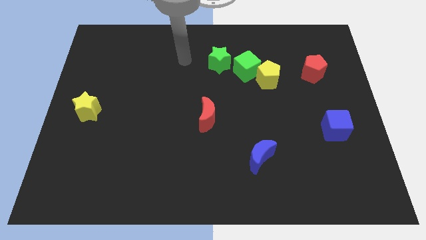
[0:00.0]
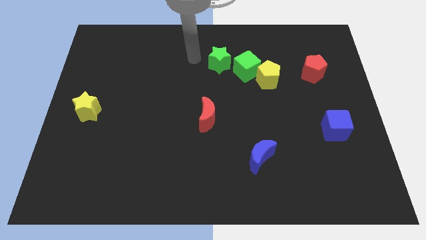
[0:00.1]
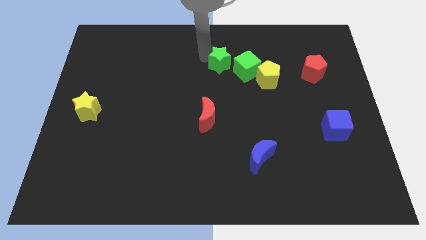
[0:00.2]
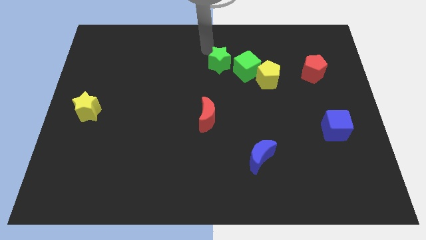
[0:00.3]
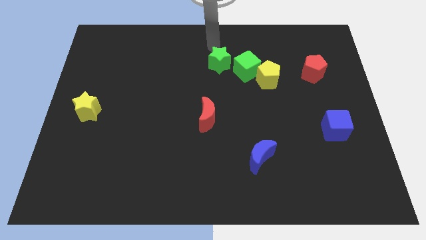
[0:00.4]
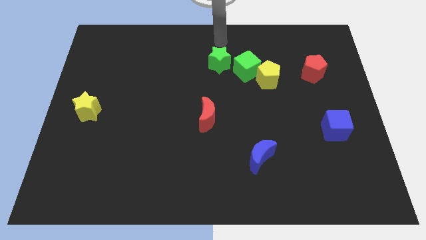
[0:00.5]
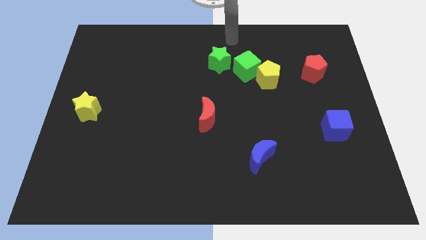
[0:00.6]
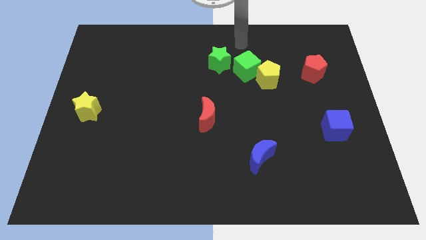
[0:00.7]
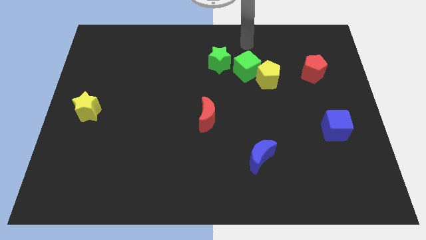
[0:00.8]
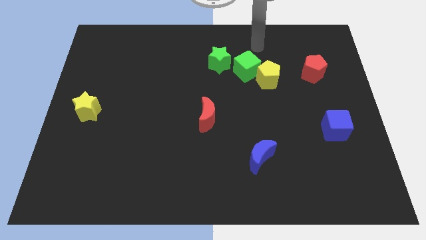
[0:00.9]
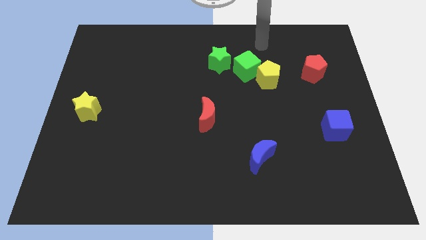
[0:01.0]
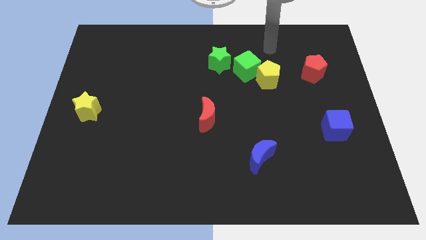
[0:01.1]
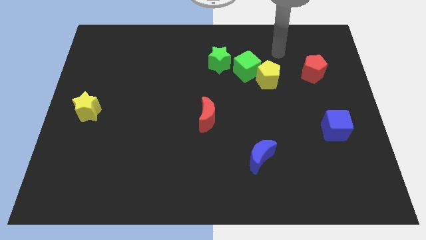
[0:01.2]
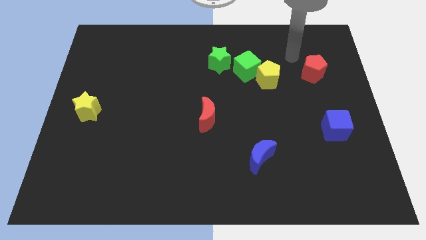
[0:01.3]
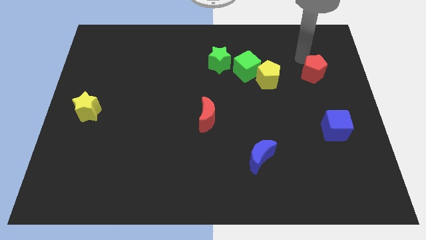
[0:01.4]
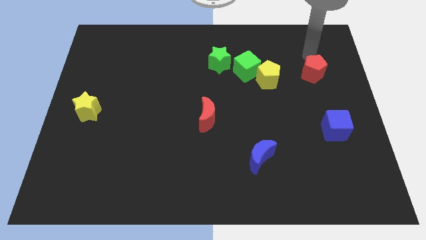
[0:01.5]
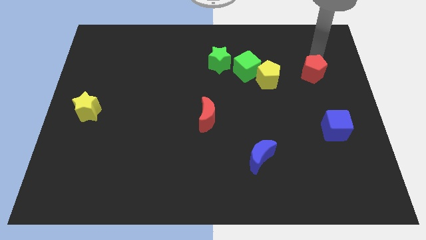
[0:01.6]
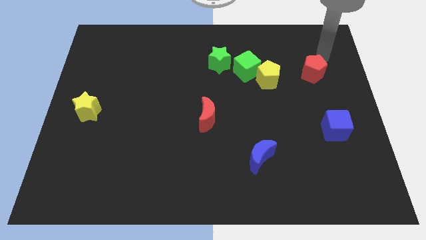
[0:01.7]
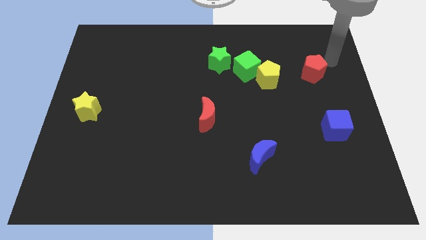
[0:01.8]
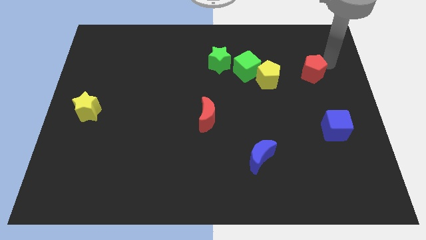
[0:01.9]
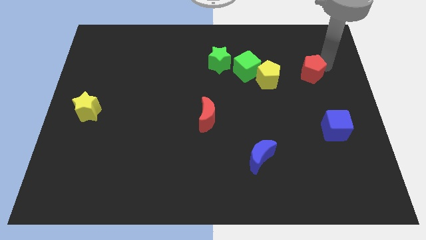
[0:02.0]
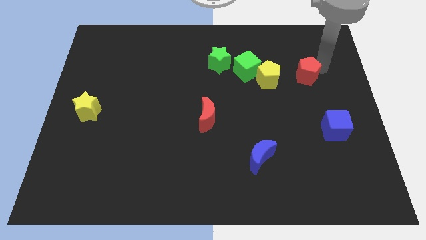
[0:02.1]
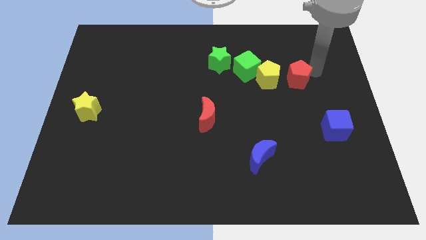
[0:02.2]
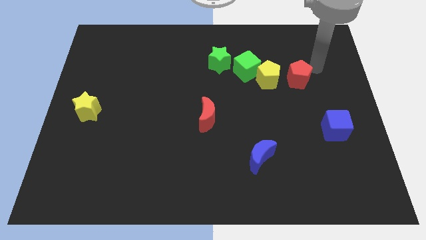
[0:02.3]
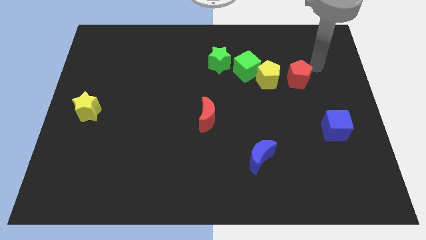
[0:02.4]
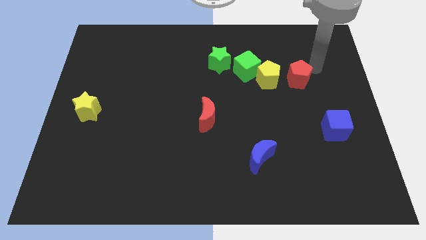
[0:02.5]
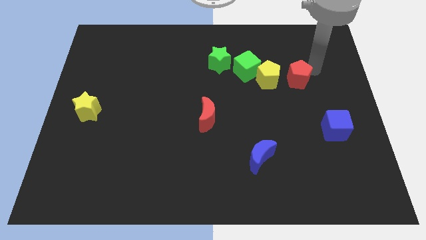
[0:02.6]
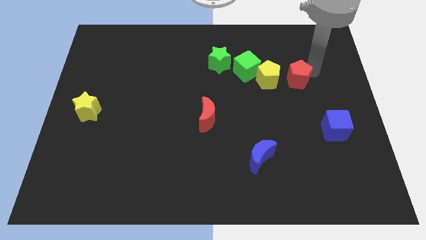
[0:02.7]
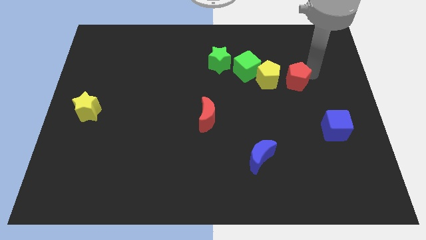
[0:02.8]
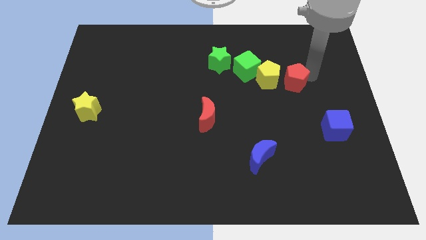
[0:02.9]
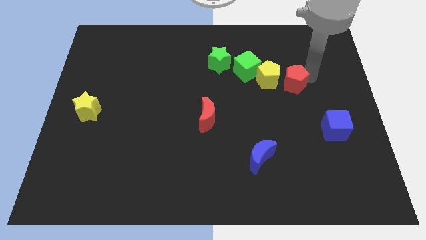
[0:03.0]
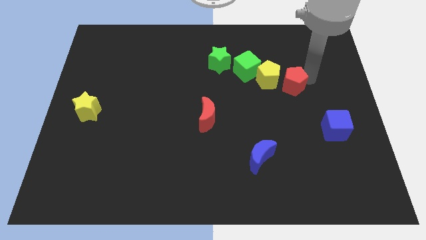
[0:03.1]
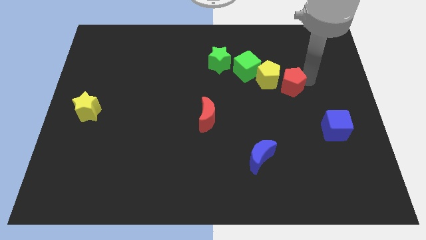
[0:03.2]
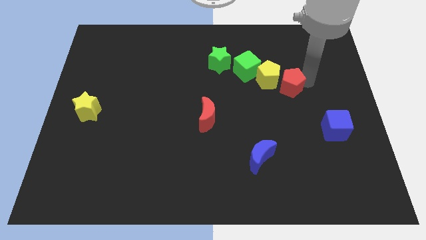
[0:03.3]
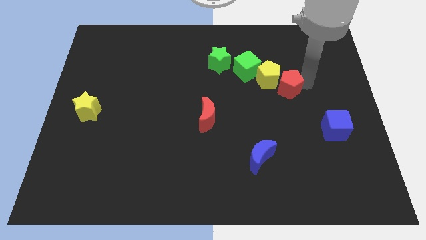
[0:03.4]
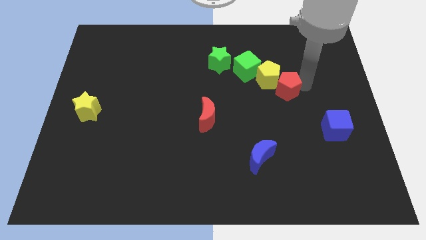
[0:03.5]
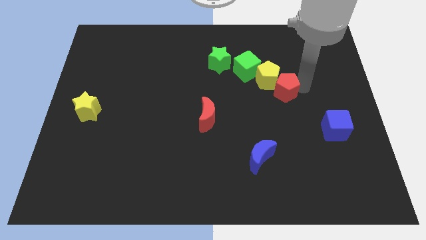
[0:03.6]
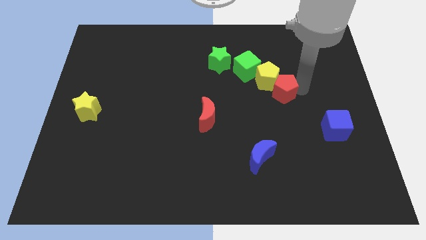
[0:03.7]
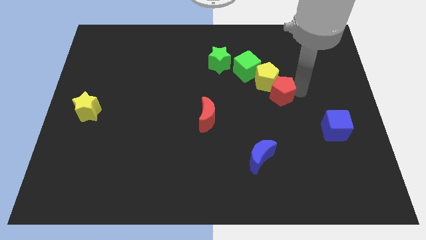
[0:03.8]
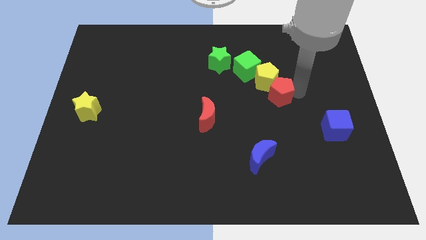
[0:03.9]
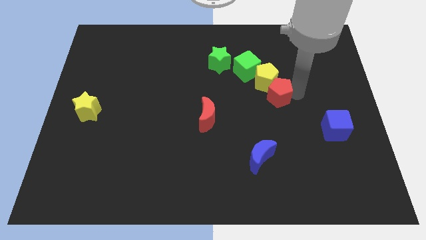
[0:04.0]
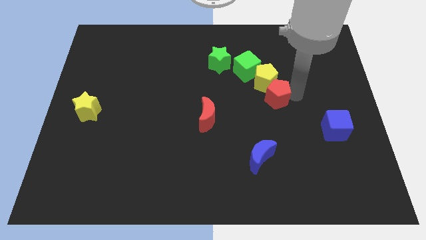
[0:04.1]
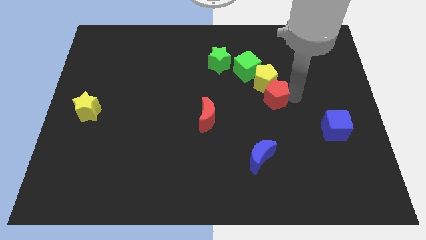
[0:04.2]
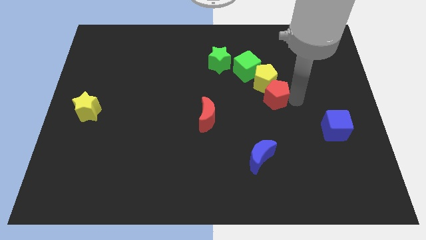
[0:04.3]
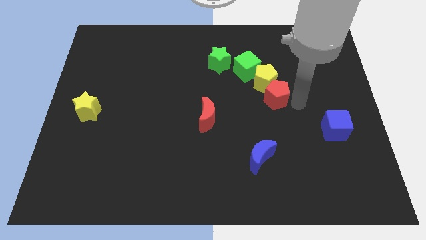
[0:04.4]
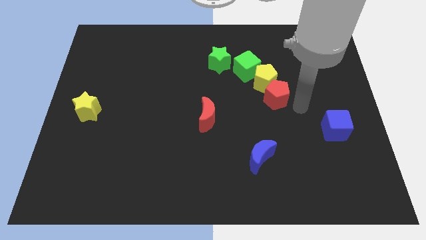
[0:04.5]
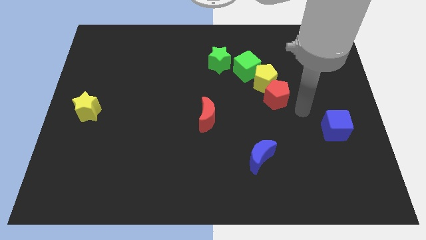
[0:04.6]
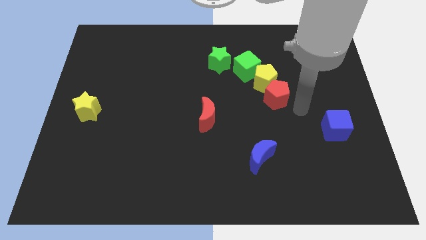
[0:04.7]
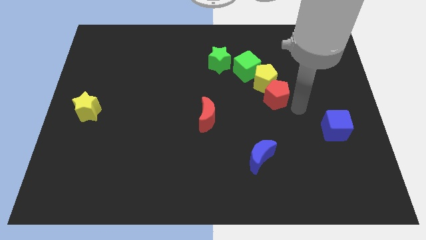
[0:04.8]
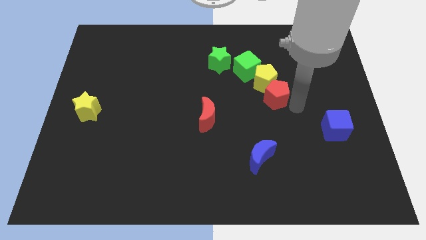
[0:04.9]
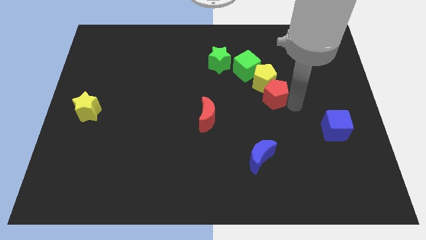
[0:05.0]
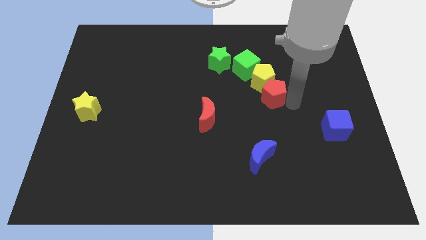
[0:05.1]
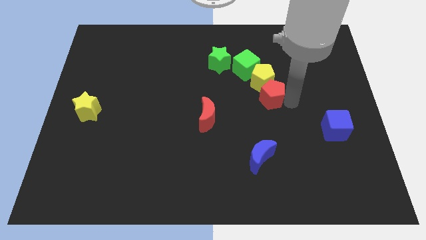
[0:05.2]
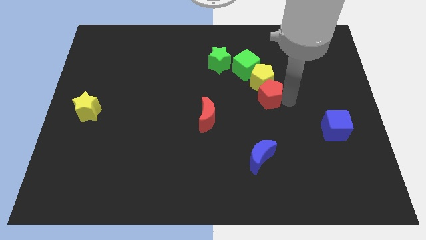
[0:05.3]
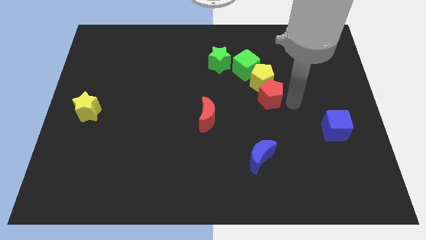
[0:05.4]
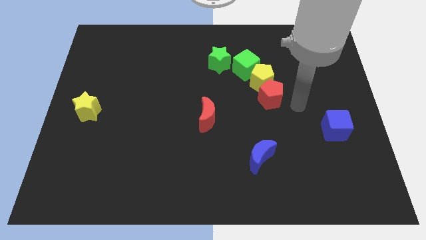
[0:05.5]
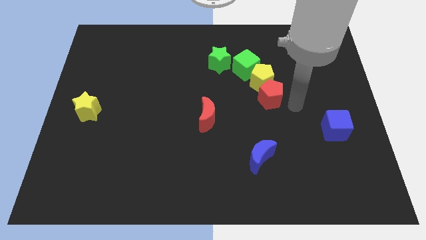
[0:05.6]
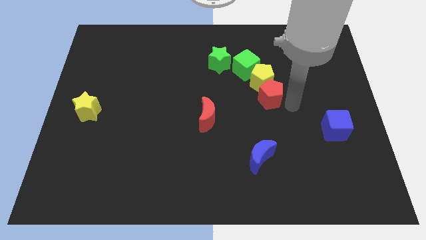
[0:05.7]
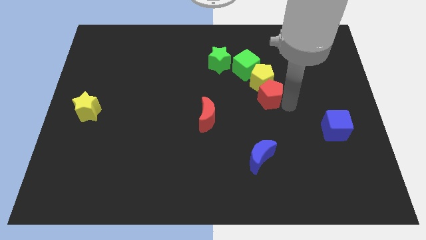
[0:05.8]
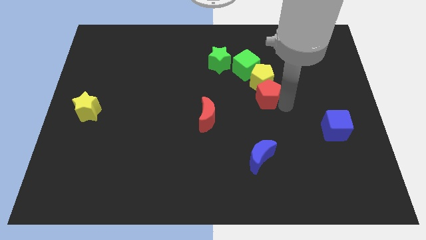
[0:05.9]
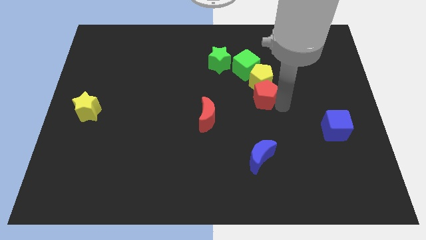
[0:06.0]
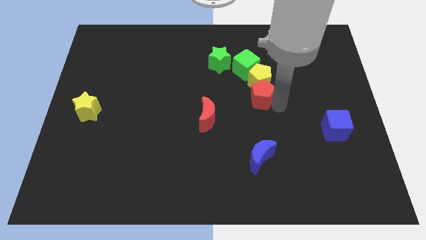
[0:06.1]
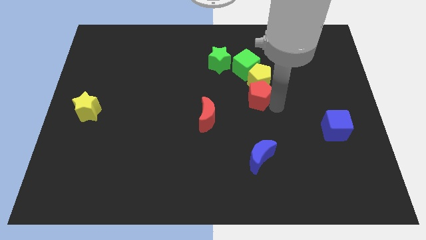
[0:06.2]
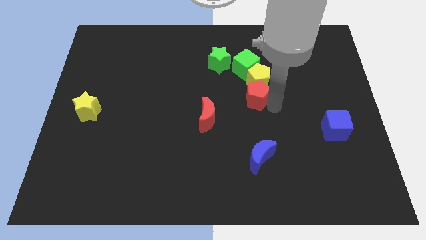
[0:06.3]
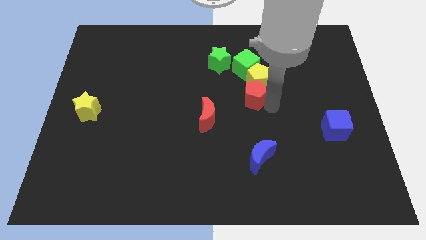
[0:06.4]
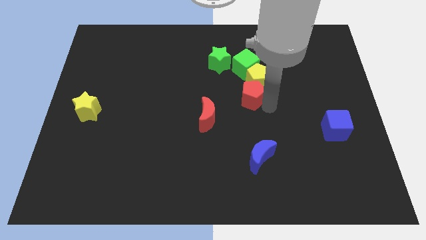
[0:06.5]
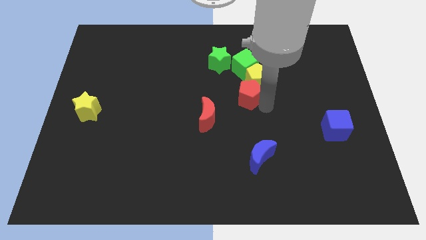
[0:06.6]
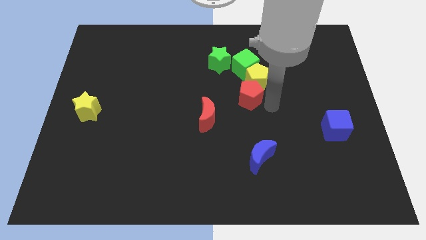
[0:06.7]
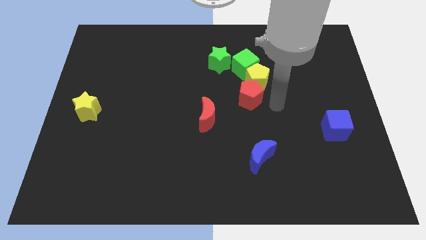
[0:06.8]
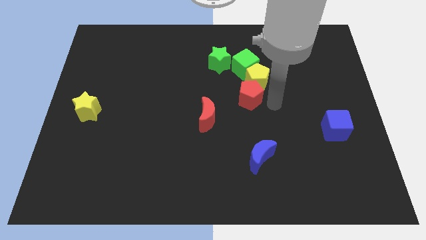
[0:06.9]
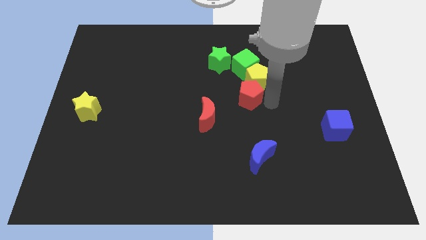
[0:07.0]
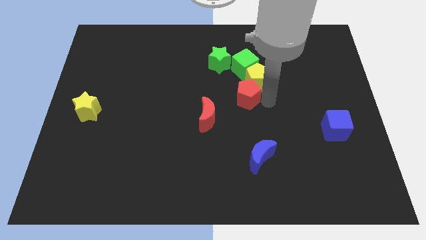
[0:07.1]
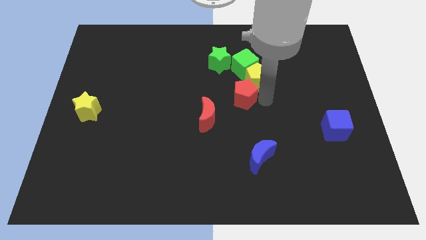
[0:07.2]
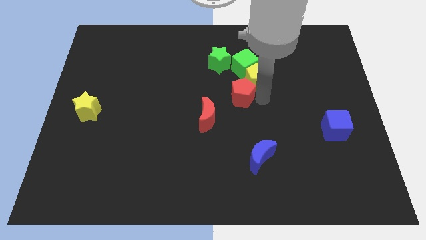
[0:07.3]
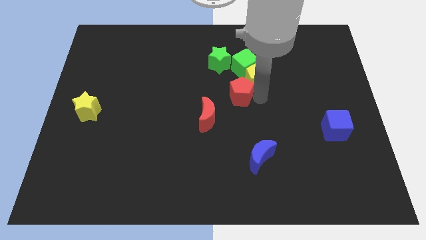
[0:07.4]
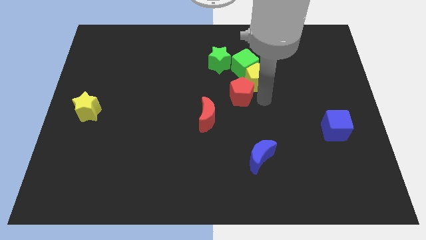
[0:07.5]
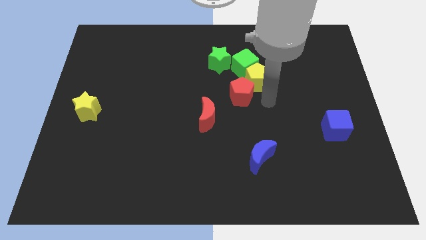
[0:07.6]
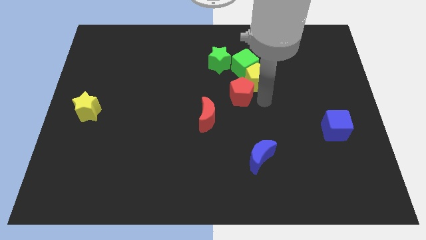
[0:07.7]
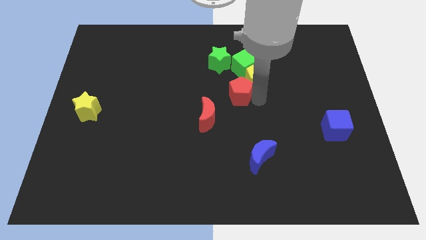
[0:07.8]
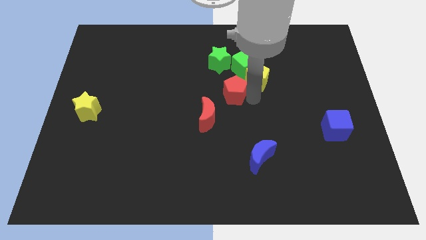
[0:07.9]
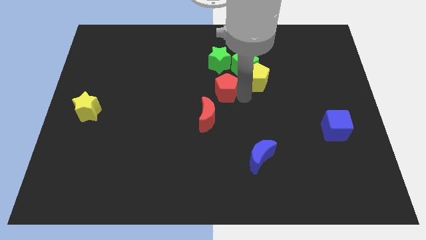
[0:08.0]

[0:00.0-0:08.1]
slide the red pentagon to the left

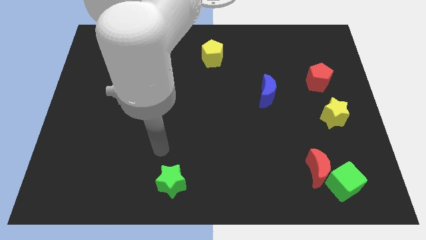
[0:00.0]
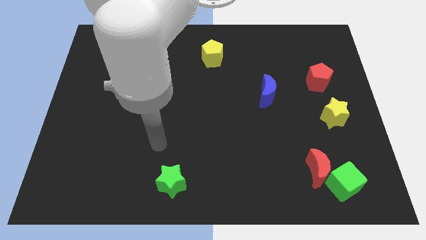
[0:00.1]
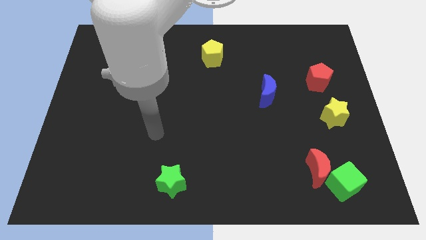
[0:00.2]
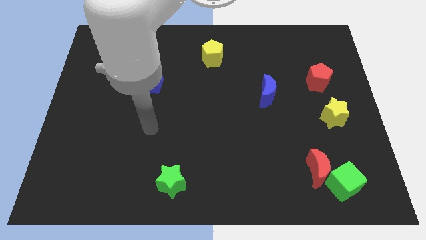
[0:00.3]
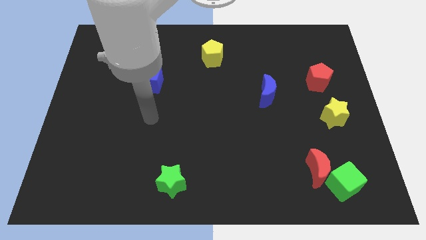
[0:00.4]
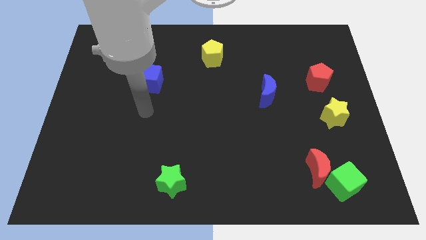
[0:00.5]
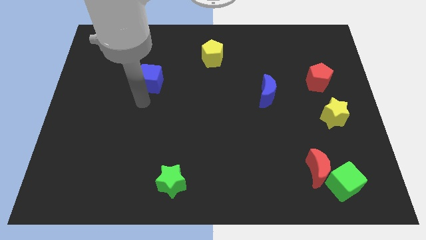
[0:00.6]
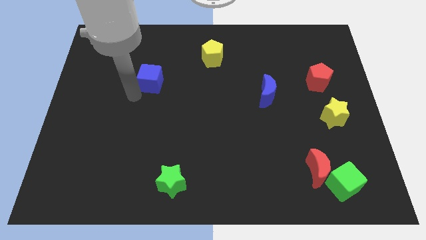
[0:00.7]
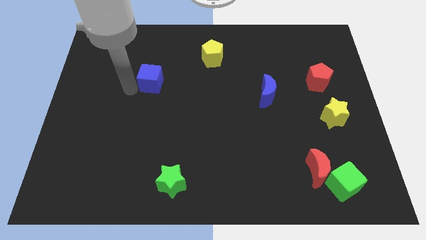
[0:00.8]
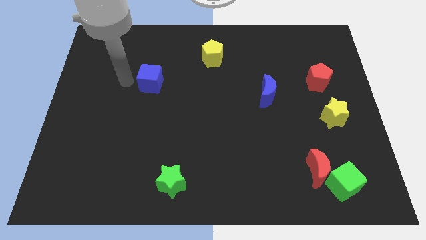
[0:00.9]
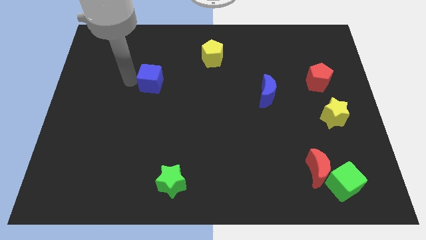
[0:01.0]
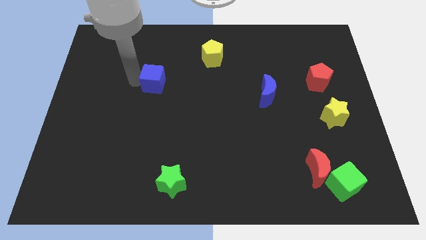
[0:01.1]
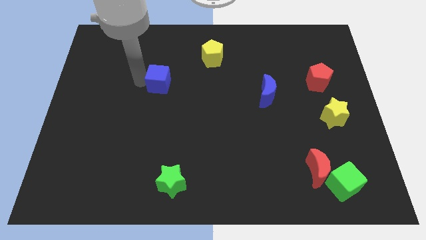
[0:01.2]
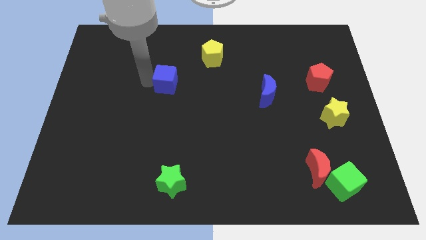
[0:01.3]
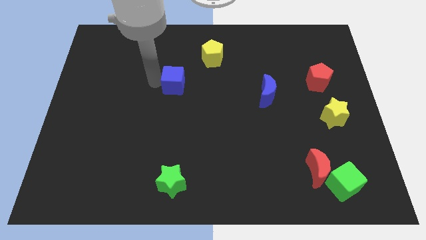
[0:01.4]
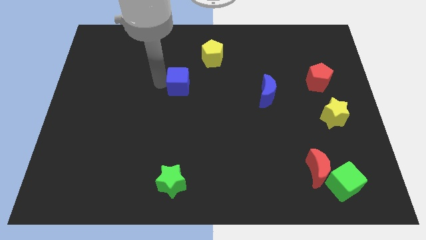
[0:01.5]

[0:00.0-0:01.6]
slide the blue cube right slightly
